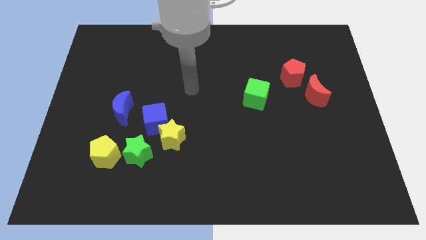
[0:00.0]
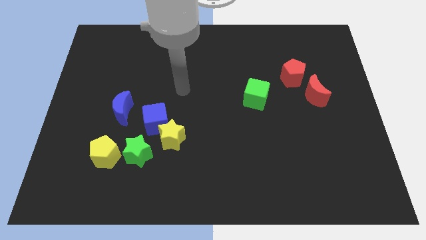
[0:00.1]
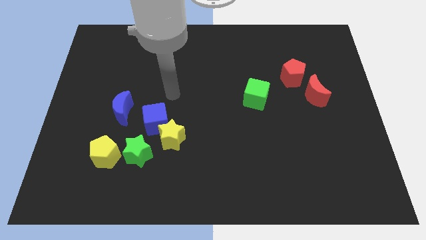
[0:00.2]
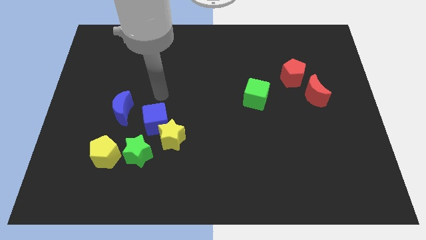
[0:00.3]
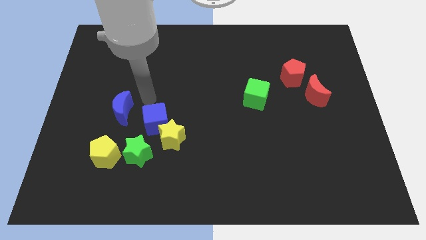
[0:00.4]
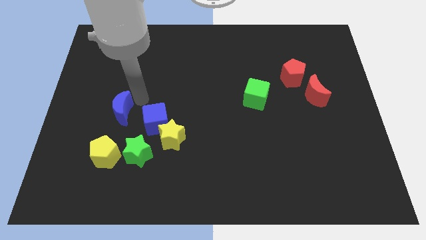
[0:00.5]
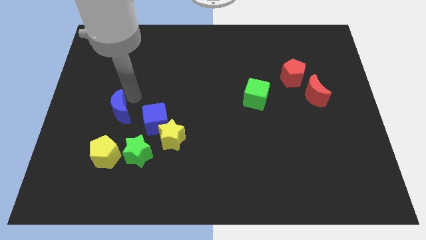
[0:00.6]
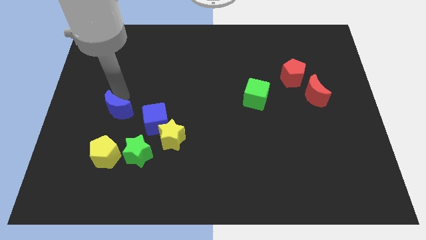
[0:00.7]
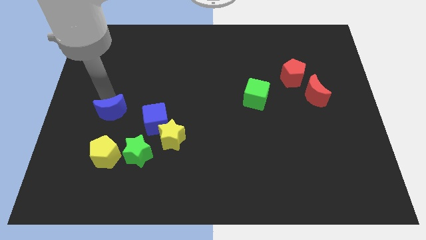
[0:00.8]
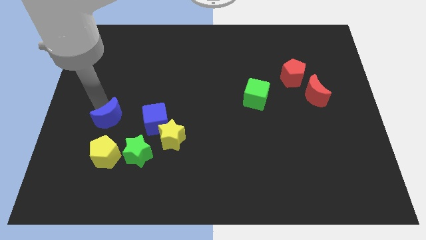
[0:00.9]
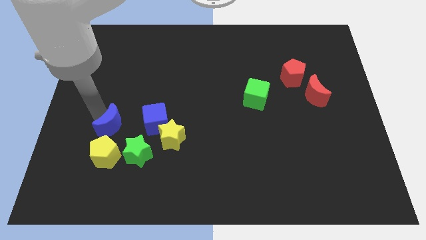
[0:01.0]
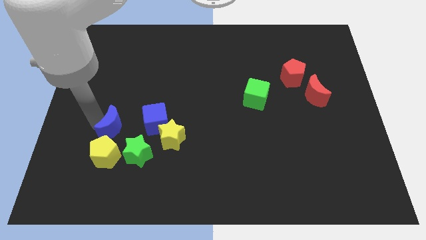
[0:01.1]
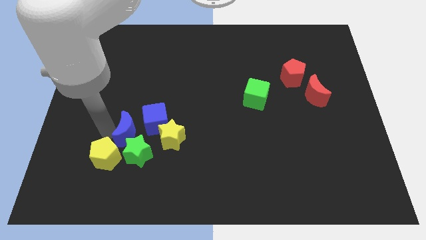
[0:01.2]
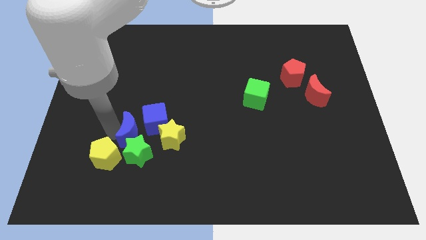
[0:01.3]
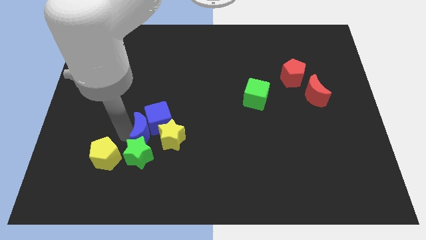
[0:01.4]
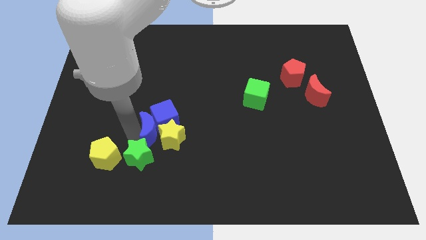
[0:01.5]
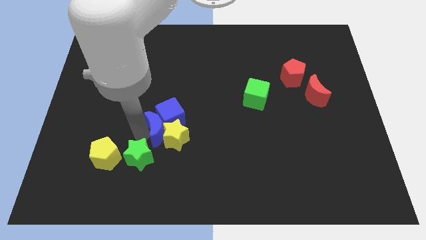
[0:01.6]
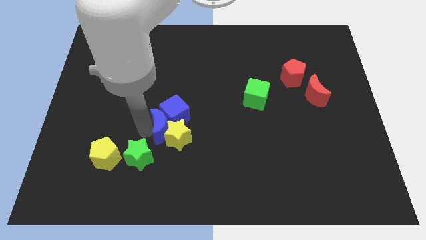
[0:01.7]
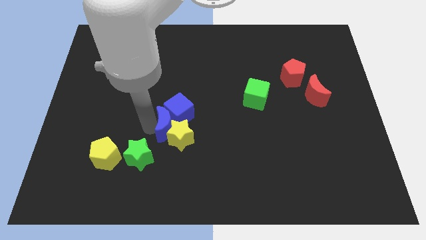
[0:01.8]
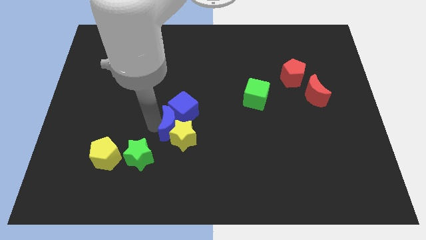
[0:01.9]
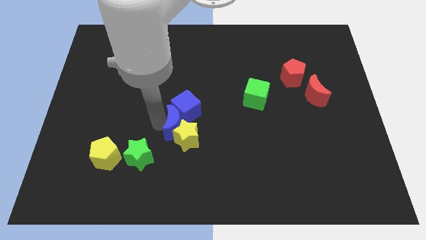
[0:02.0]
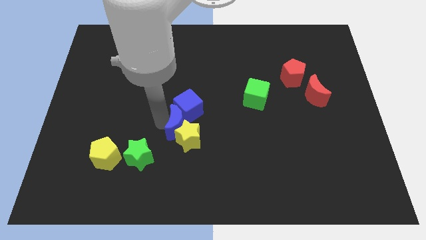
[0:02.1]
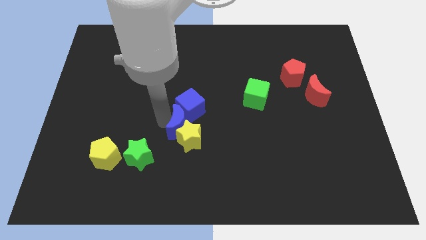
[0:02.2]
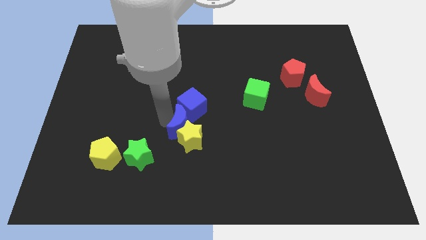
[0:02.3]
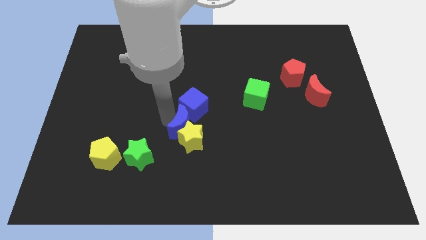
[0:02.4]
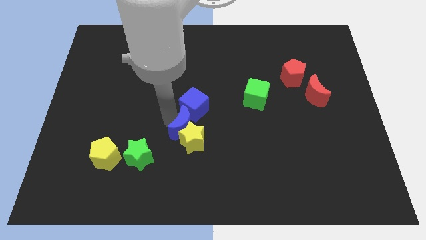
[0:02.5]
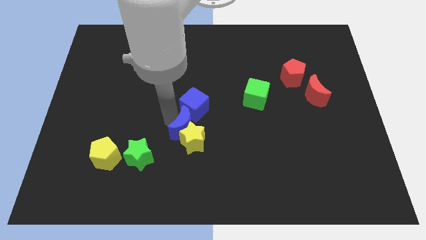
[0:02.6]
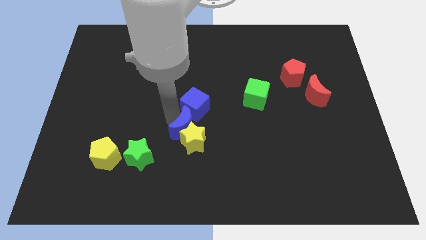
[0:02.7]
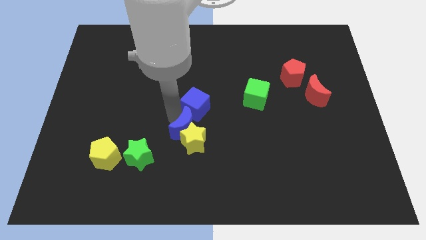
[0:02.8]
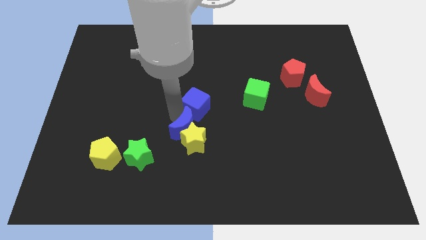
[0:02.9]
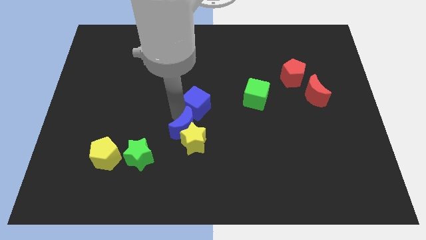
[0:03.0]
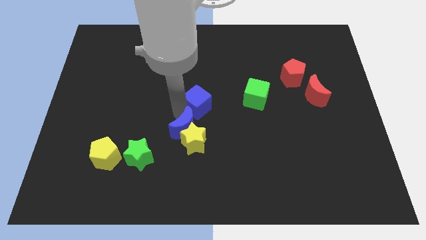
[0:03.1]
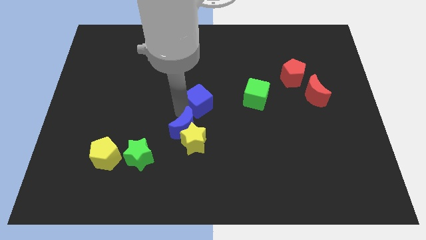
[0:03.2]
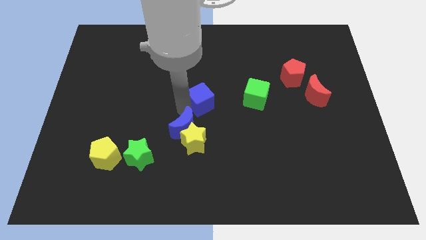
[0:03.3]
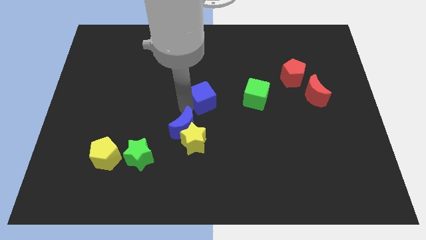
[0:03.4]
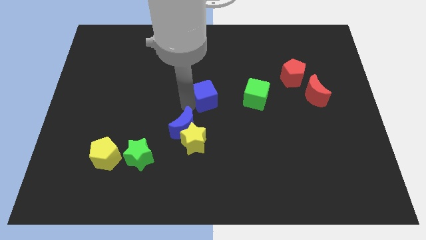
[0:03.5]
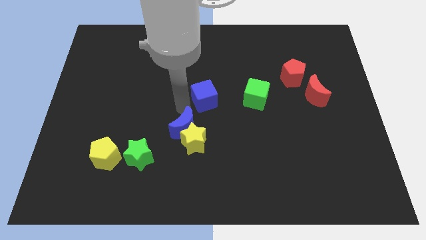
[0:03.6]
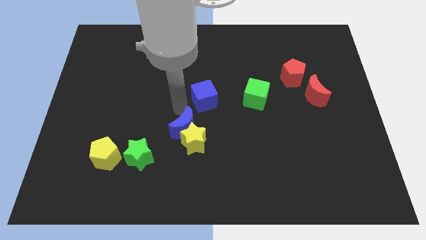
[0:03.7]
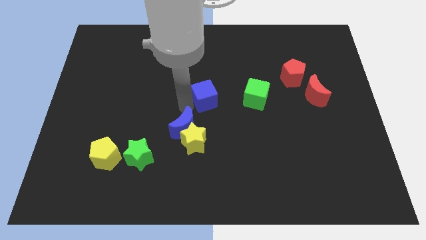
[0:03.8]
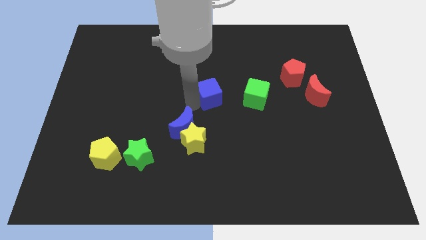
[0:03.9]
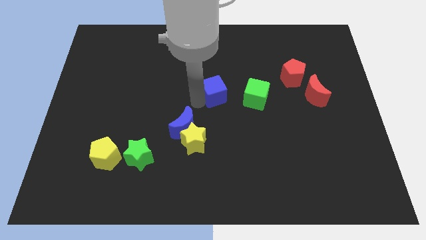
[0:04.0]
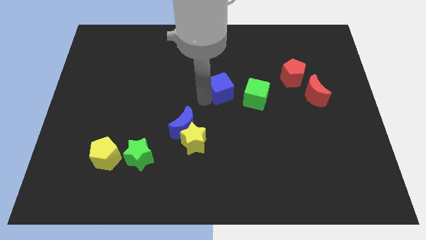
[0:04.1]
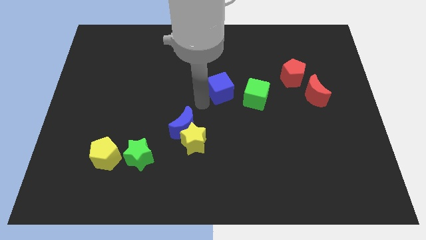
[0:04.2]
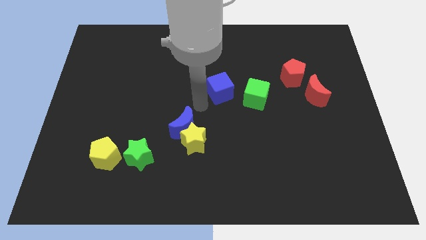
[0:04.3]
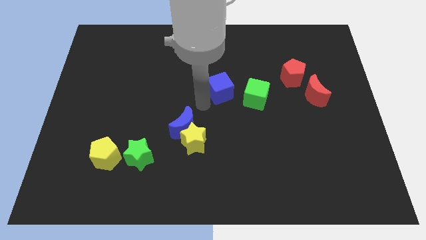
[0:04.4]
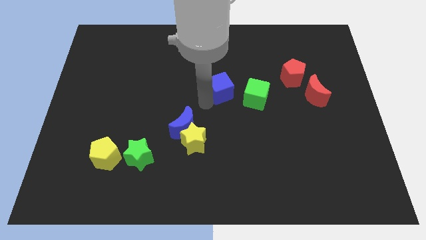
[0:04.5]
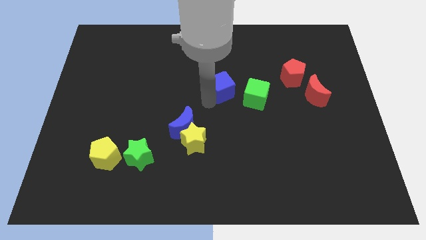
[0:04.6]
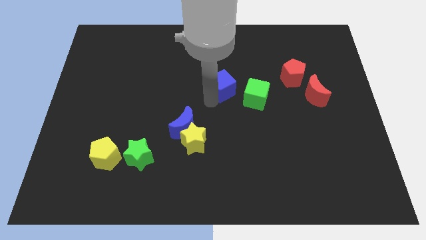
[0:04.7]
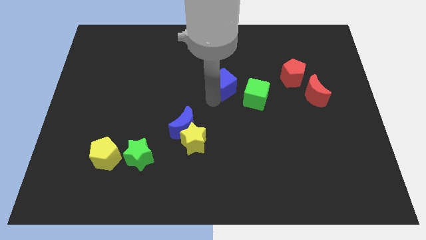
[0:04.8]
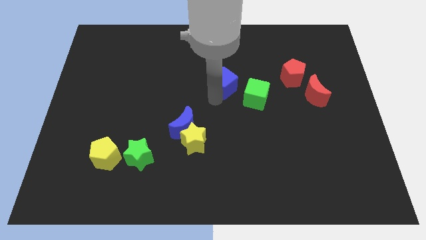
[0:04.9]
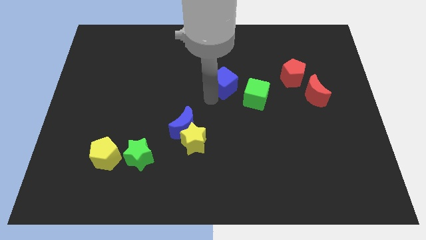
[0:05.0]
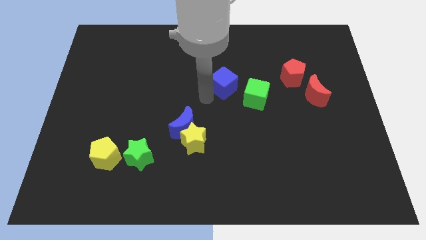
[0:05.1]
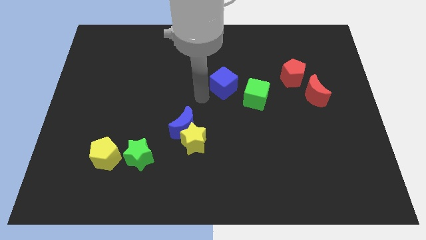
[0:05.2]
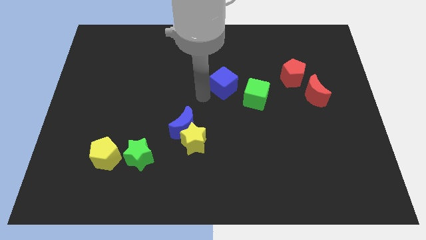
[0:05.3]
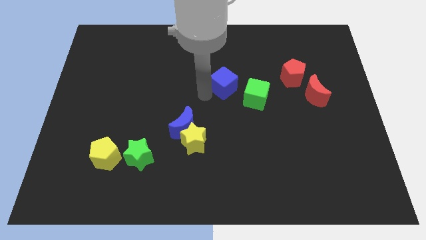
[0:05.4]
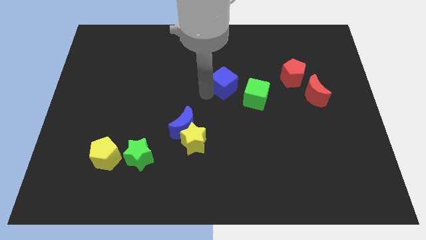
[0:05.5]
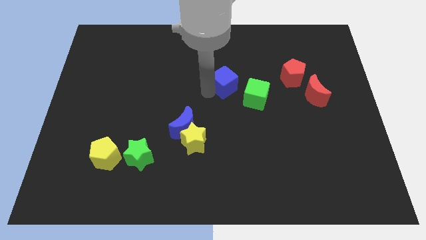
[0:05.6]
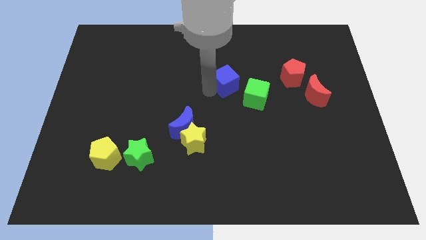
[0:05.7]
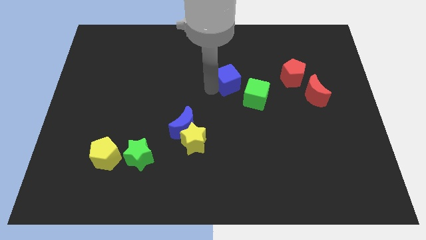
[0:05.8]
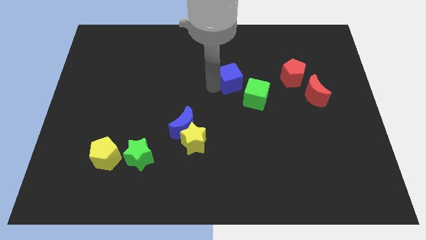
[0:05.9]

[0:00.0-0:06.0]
slide the blue cube to the left of the red pentagon

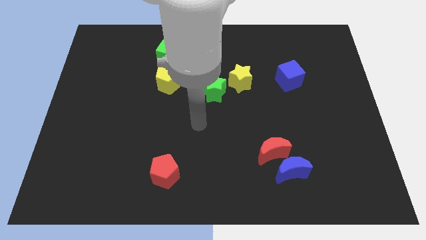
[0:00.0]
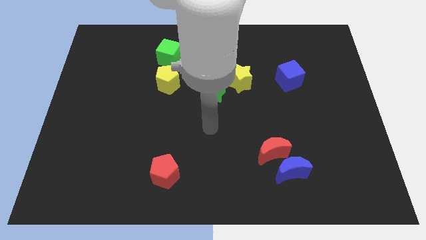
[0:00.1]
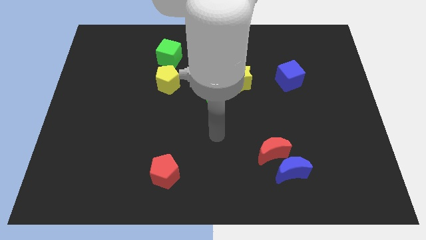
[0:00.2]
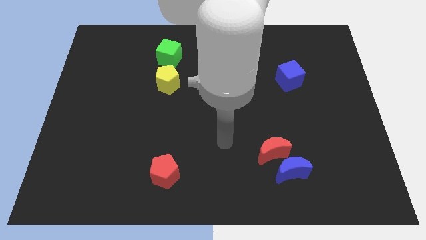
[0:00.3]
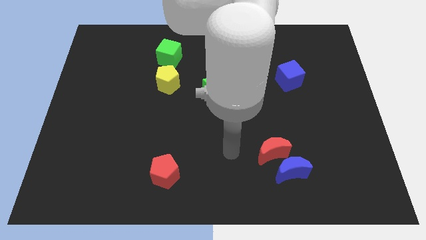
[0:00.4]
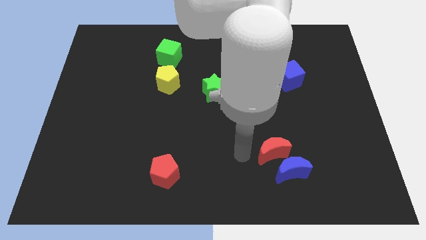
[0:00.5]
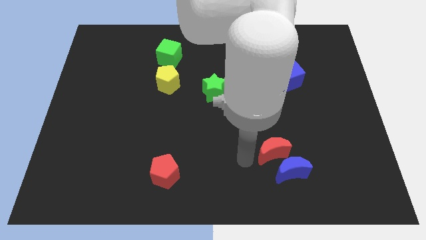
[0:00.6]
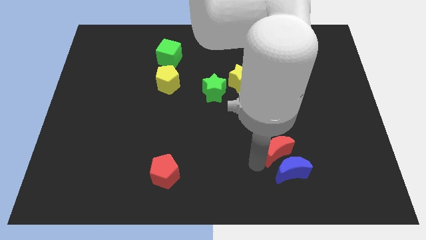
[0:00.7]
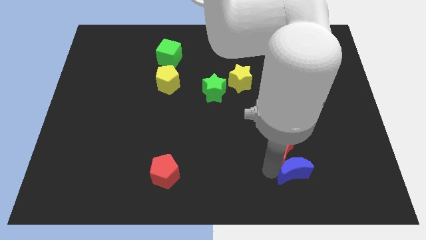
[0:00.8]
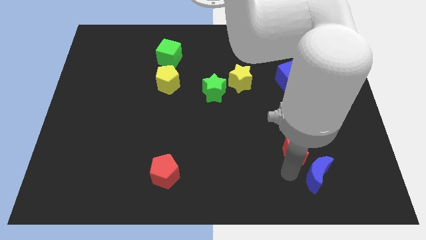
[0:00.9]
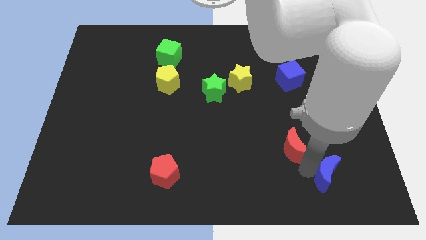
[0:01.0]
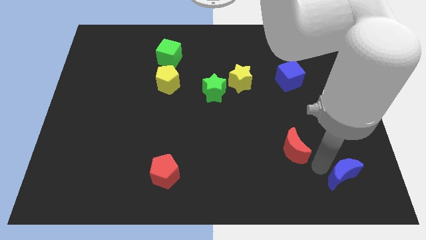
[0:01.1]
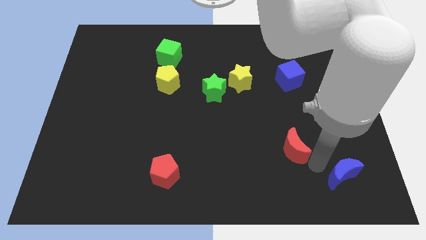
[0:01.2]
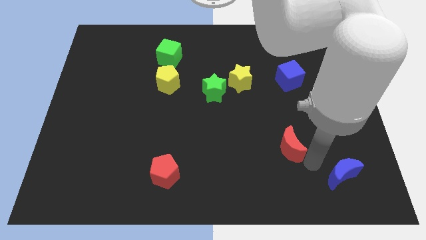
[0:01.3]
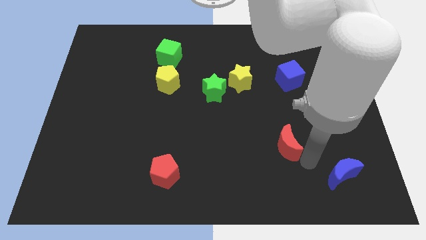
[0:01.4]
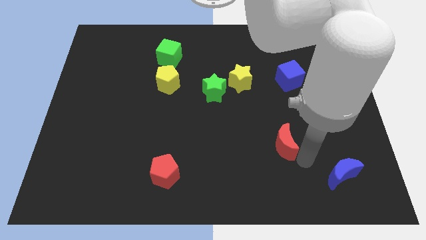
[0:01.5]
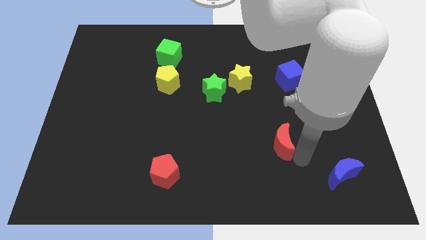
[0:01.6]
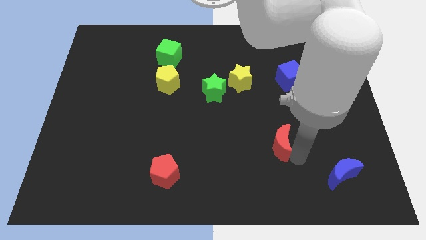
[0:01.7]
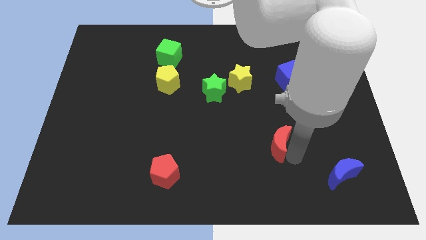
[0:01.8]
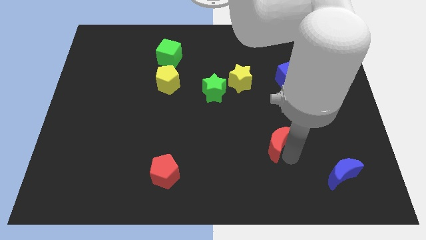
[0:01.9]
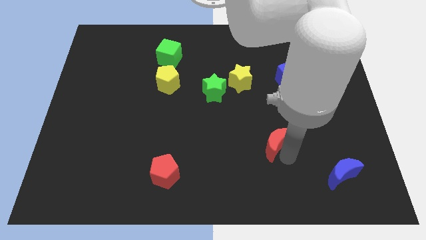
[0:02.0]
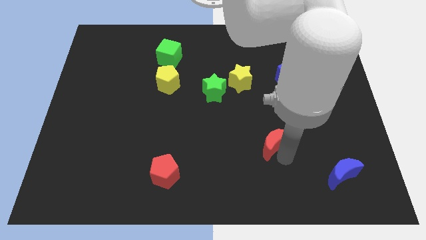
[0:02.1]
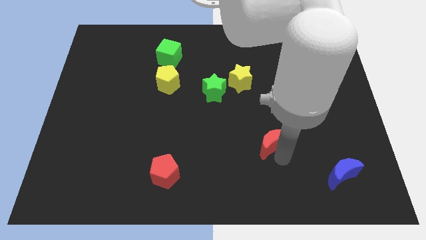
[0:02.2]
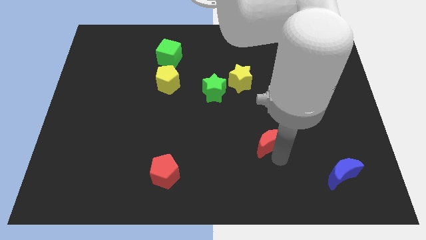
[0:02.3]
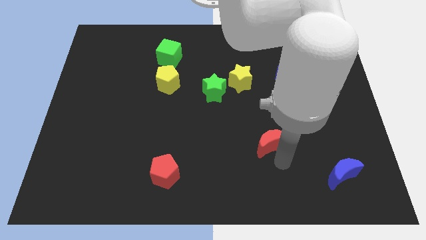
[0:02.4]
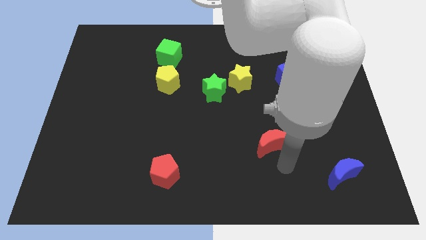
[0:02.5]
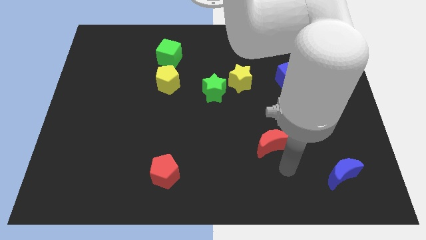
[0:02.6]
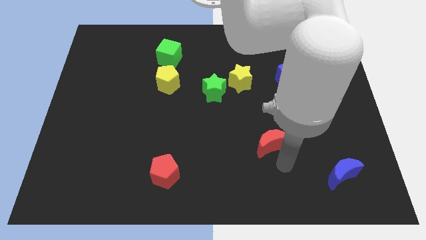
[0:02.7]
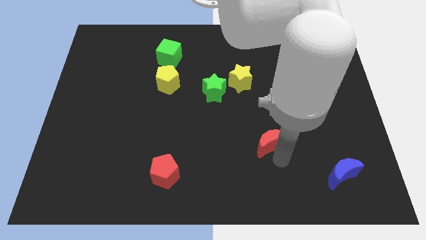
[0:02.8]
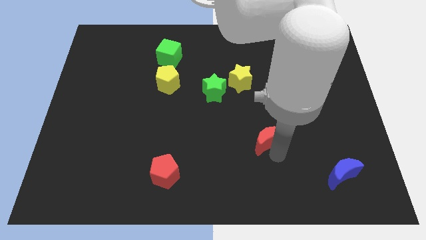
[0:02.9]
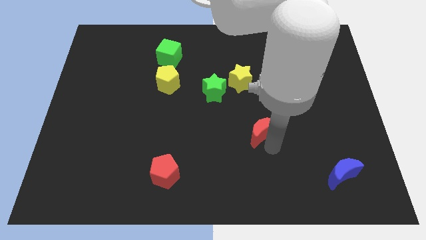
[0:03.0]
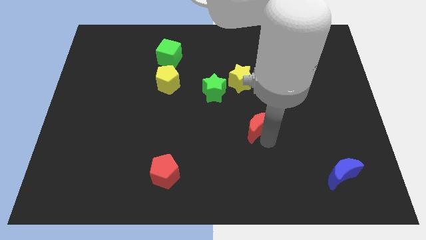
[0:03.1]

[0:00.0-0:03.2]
slide the red moon below the yellow star
